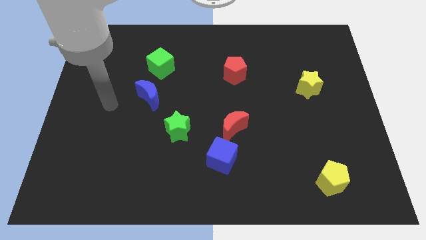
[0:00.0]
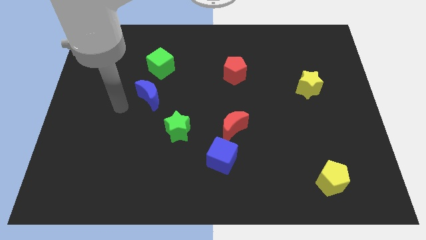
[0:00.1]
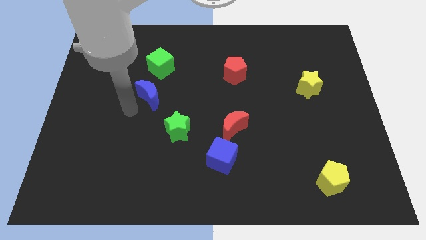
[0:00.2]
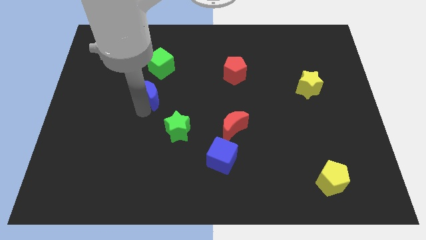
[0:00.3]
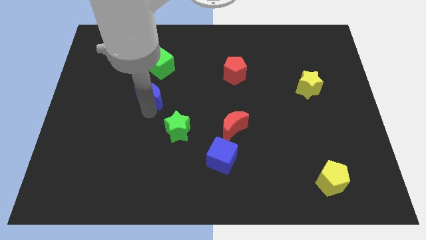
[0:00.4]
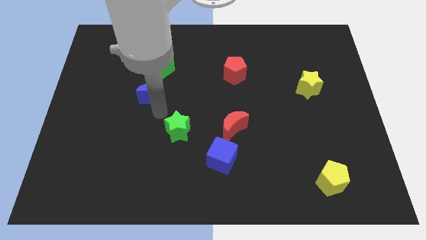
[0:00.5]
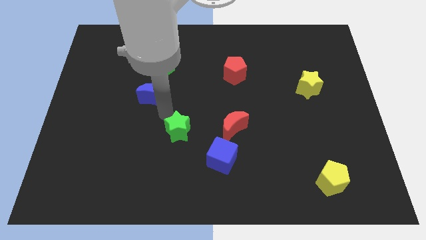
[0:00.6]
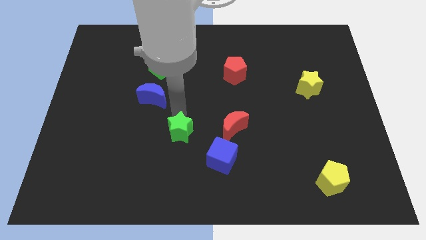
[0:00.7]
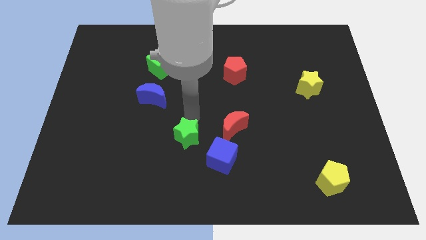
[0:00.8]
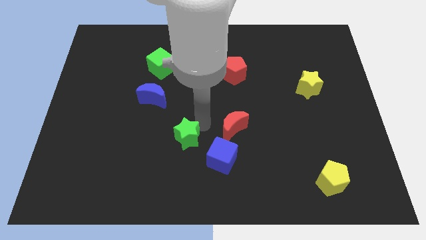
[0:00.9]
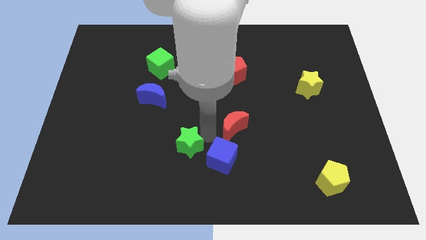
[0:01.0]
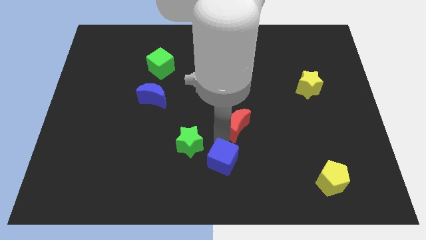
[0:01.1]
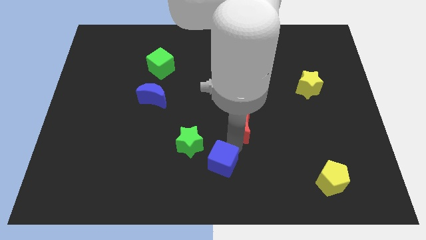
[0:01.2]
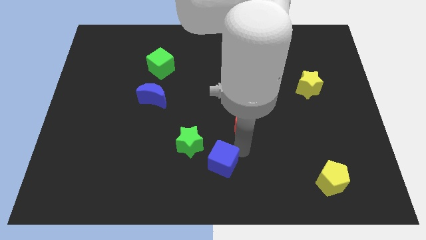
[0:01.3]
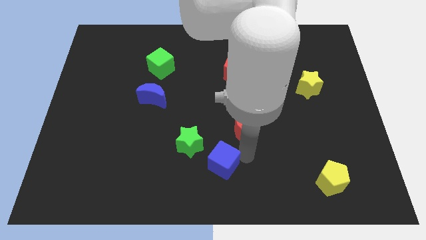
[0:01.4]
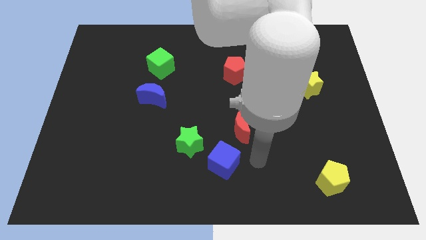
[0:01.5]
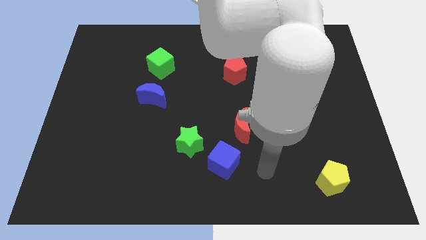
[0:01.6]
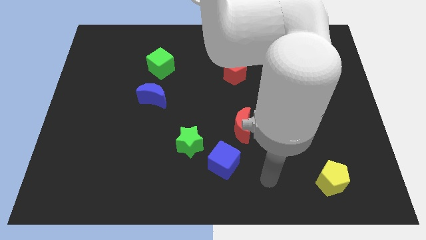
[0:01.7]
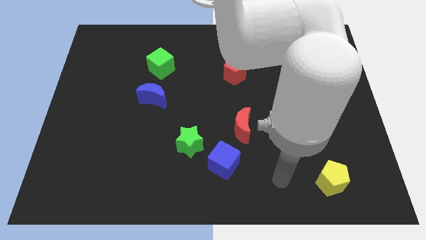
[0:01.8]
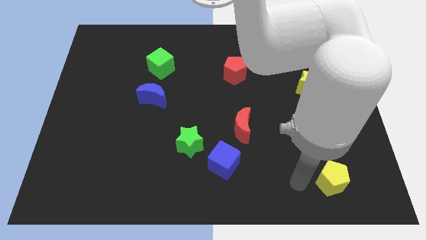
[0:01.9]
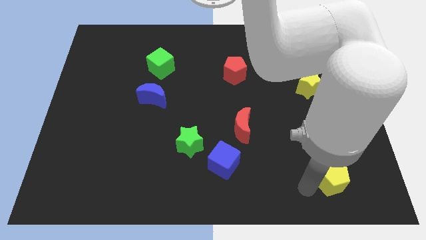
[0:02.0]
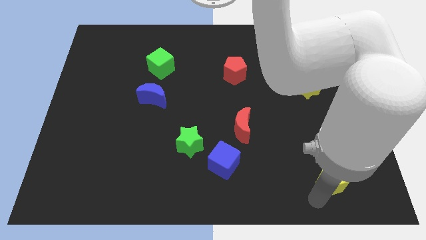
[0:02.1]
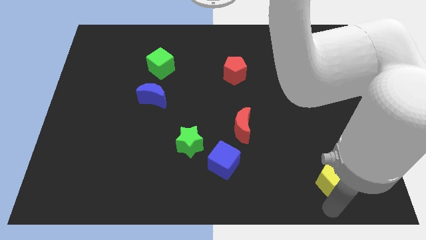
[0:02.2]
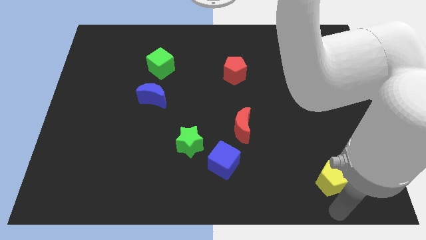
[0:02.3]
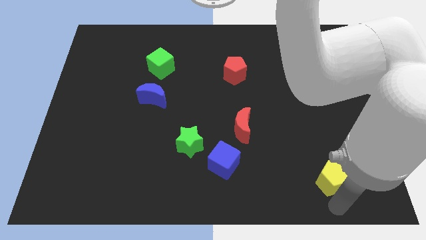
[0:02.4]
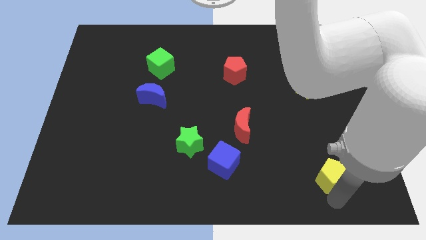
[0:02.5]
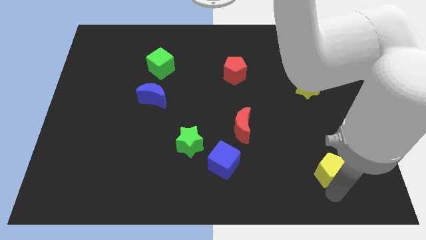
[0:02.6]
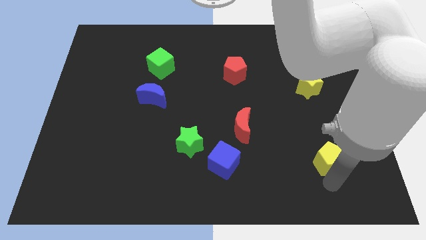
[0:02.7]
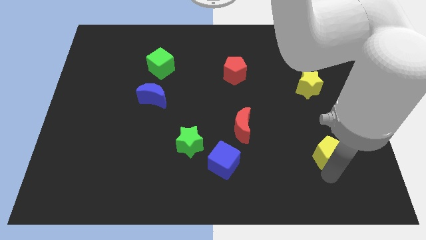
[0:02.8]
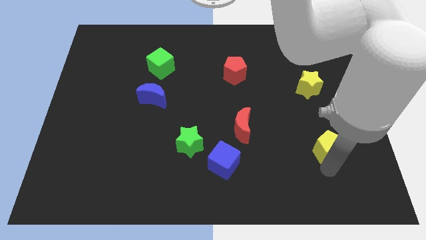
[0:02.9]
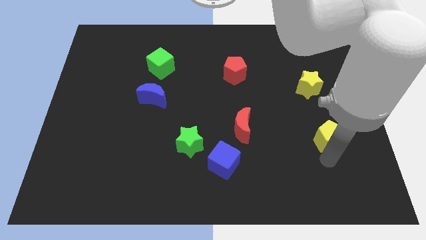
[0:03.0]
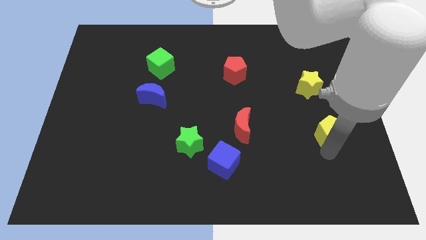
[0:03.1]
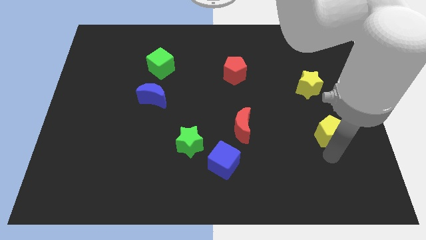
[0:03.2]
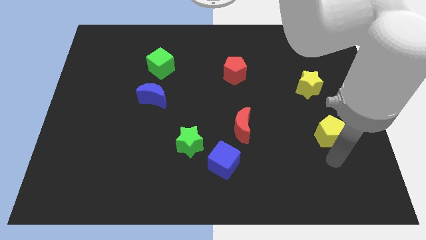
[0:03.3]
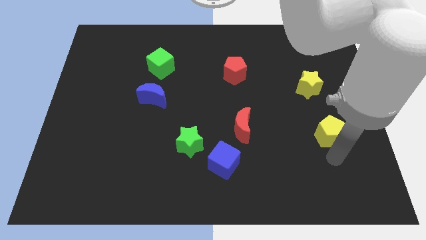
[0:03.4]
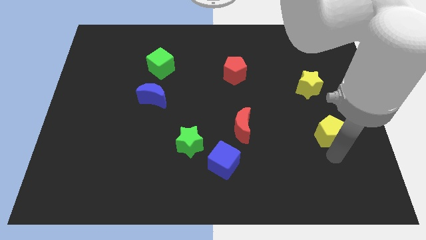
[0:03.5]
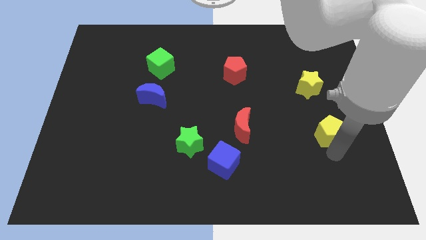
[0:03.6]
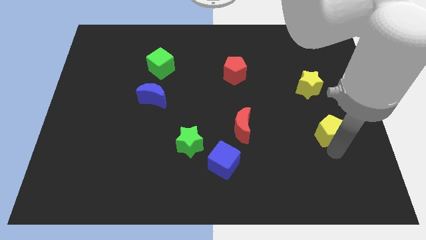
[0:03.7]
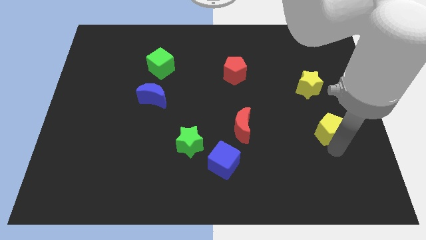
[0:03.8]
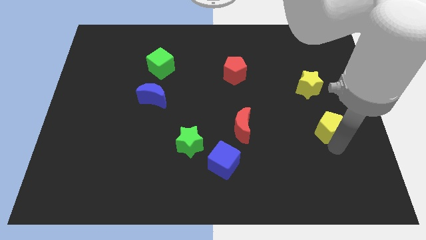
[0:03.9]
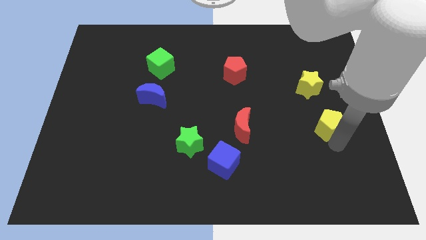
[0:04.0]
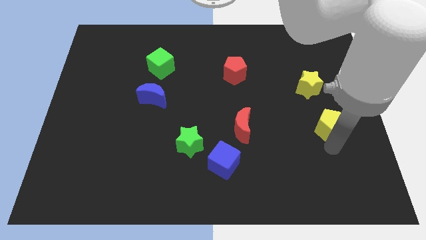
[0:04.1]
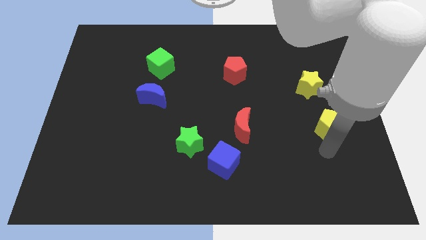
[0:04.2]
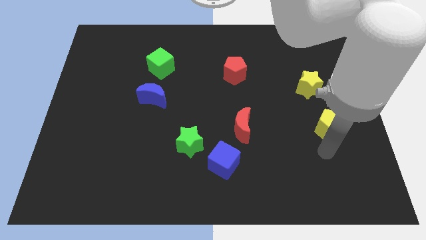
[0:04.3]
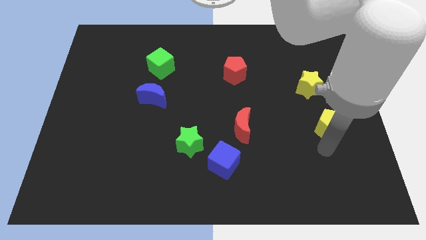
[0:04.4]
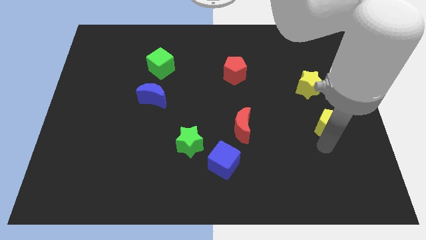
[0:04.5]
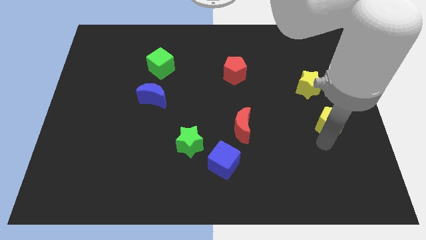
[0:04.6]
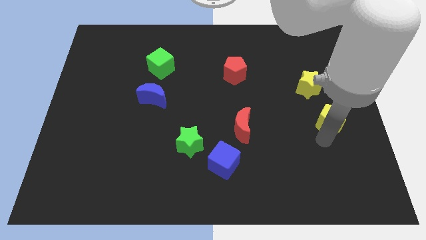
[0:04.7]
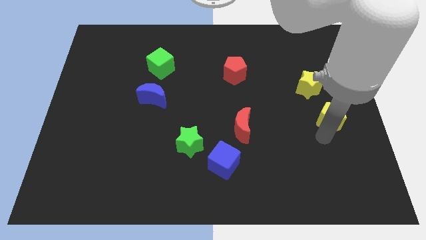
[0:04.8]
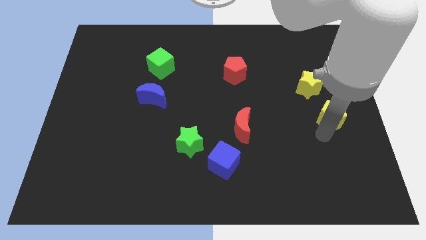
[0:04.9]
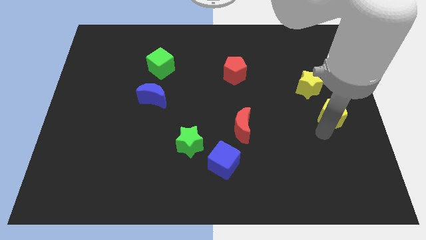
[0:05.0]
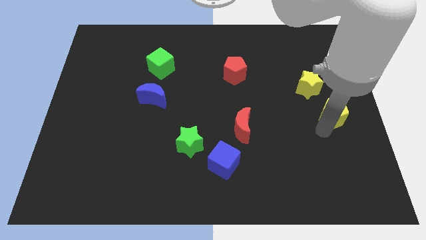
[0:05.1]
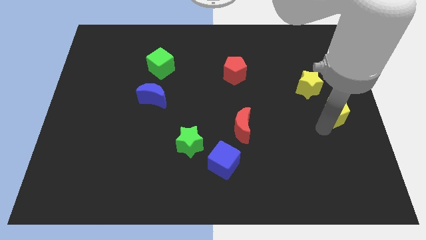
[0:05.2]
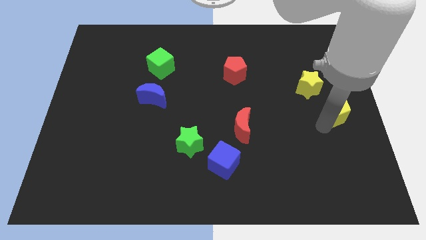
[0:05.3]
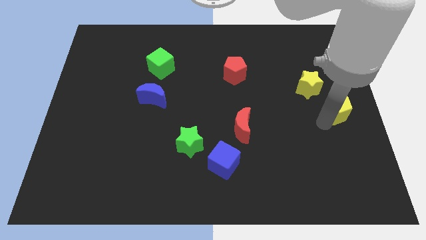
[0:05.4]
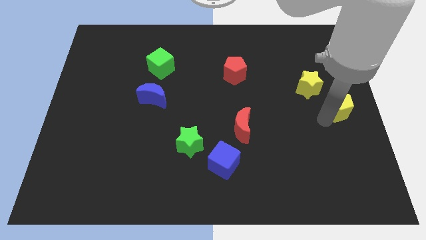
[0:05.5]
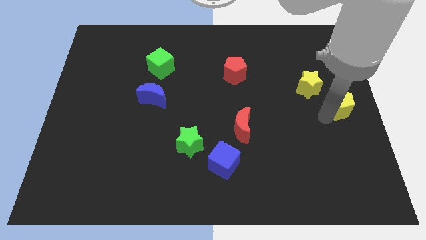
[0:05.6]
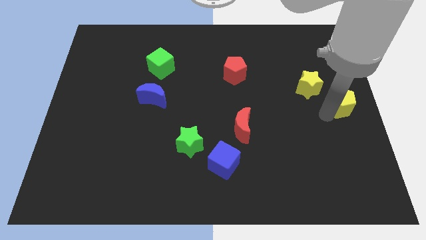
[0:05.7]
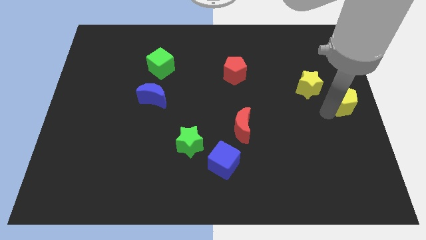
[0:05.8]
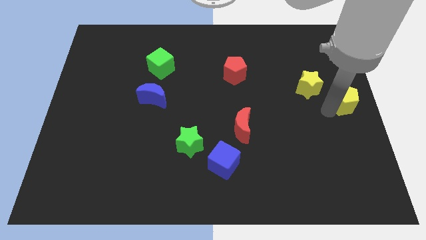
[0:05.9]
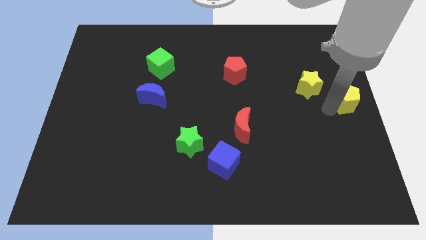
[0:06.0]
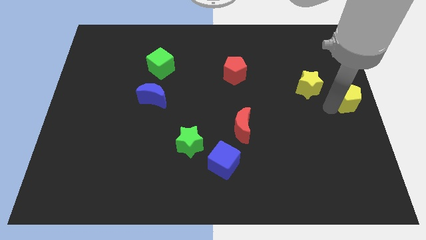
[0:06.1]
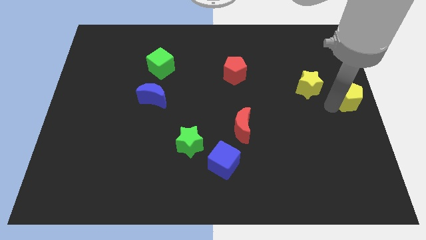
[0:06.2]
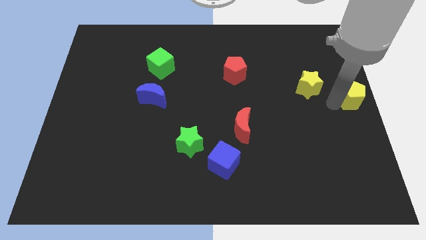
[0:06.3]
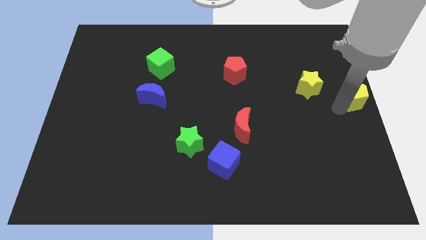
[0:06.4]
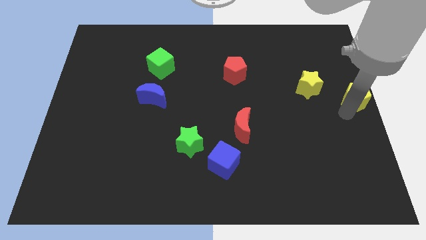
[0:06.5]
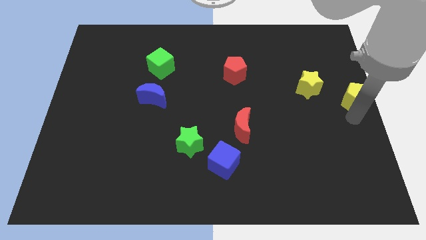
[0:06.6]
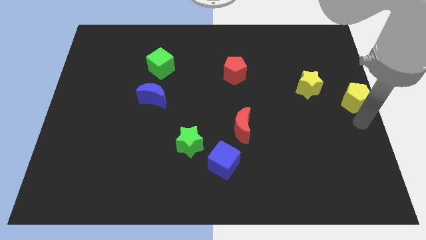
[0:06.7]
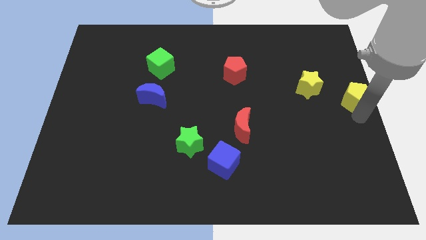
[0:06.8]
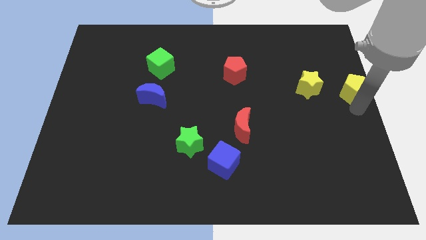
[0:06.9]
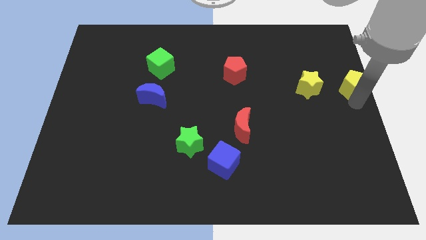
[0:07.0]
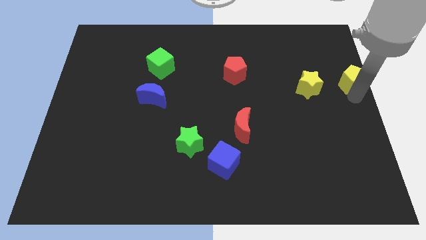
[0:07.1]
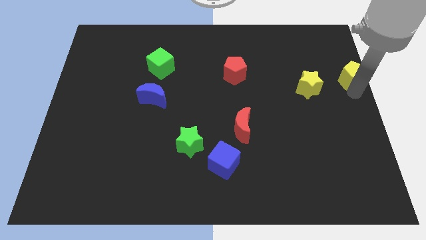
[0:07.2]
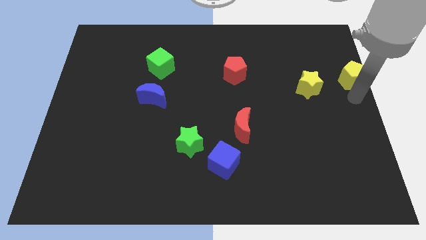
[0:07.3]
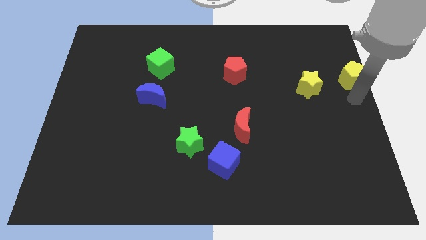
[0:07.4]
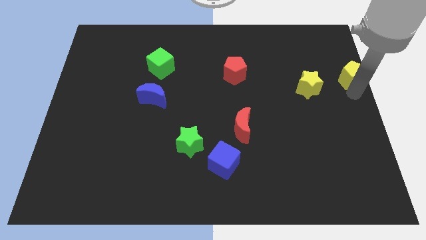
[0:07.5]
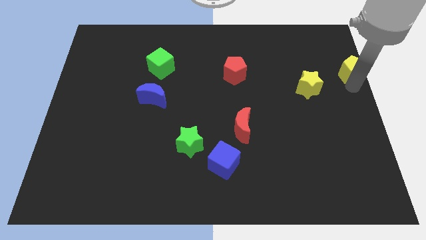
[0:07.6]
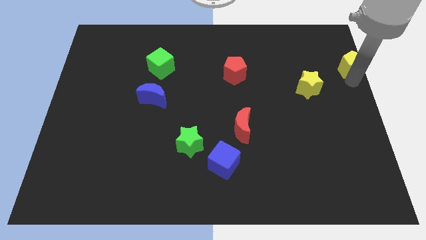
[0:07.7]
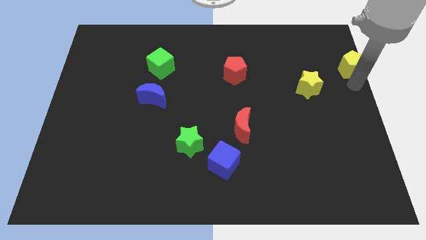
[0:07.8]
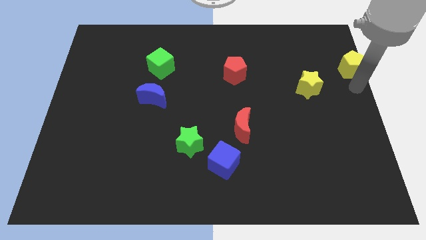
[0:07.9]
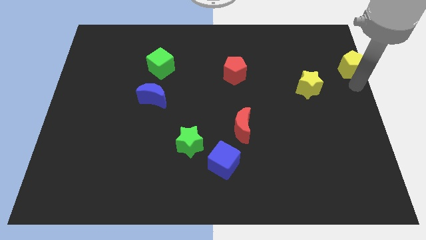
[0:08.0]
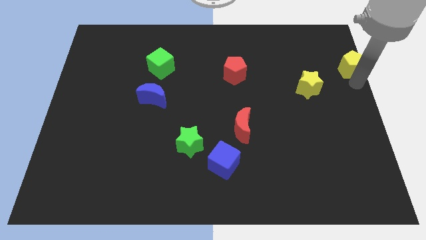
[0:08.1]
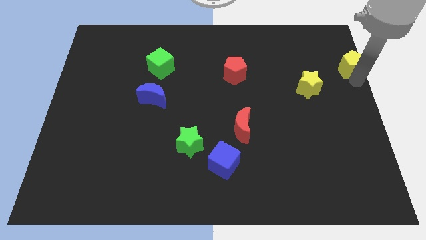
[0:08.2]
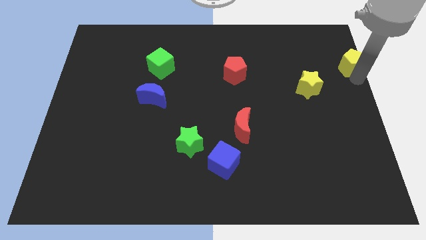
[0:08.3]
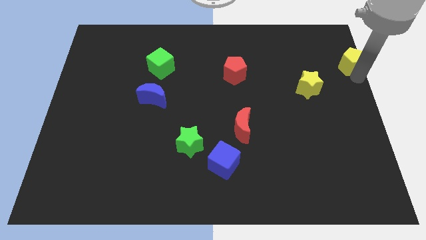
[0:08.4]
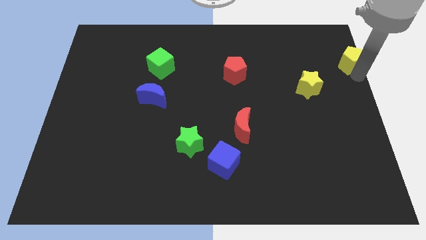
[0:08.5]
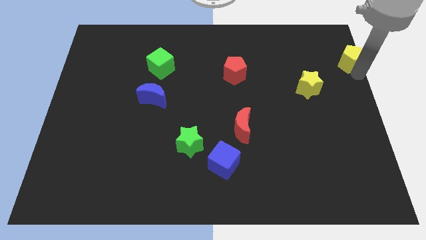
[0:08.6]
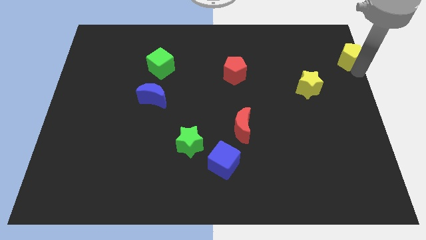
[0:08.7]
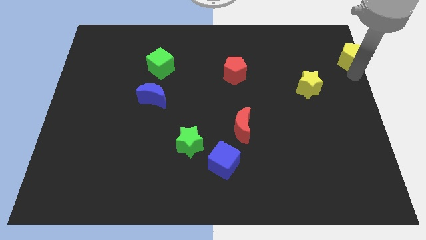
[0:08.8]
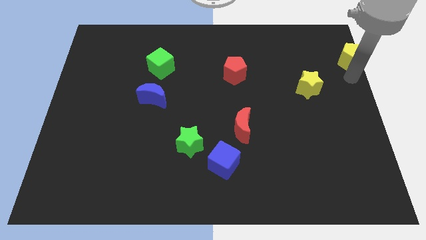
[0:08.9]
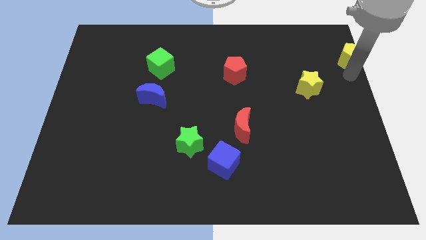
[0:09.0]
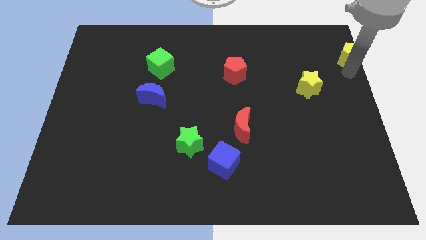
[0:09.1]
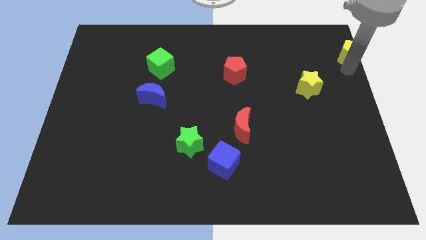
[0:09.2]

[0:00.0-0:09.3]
put the yellow pentagon to the top right of the board
